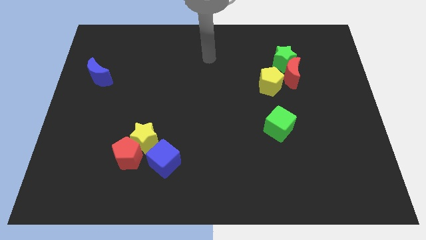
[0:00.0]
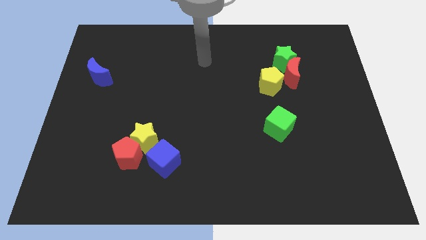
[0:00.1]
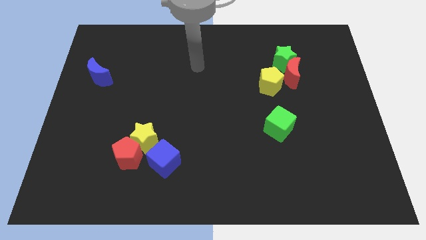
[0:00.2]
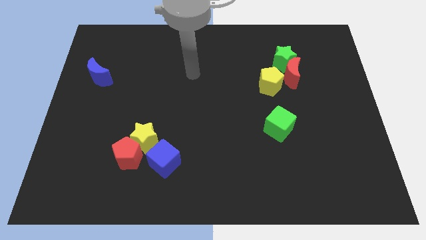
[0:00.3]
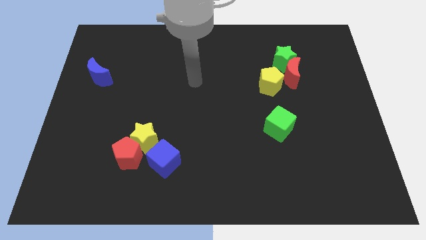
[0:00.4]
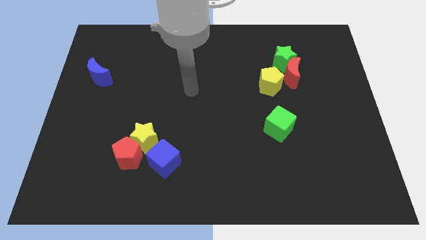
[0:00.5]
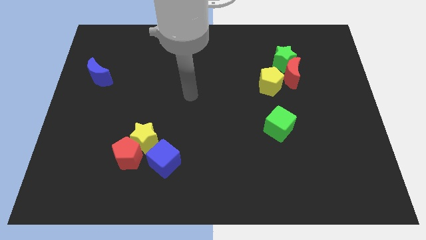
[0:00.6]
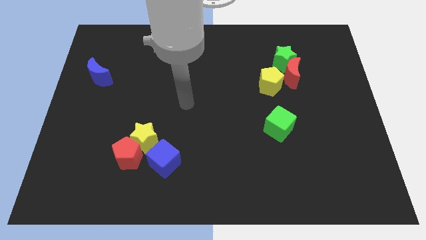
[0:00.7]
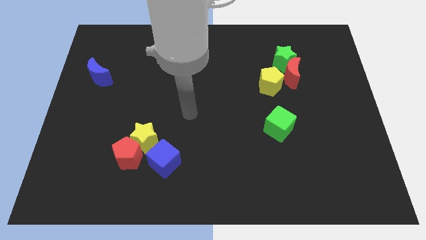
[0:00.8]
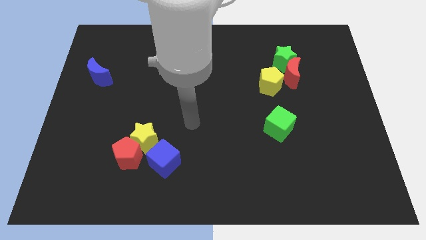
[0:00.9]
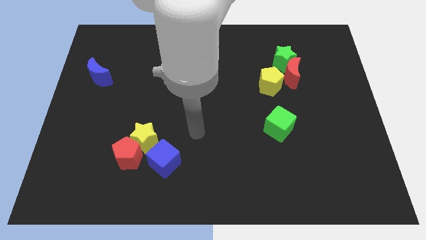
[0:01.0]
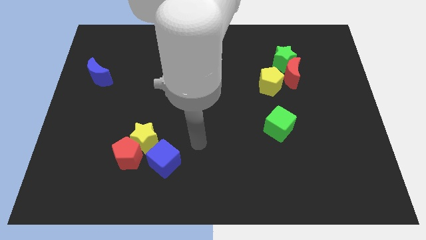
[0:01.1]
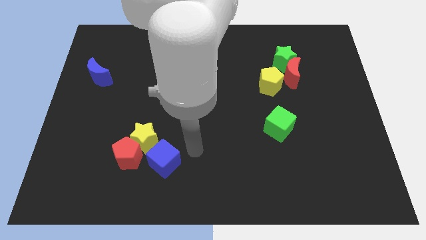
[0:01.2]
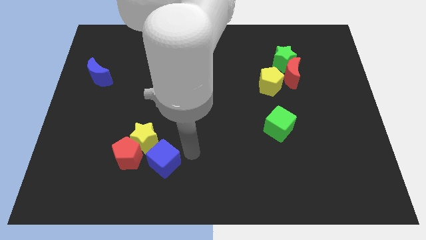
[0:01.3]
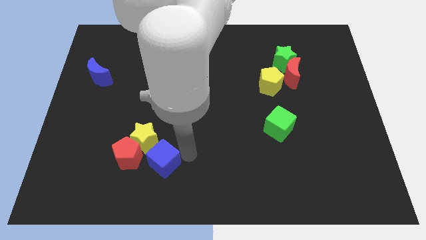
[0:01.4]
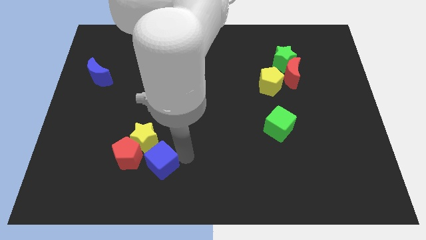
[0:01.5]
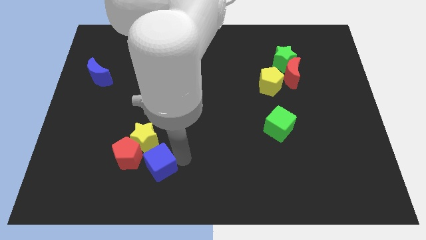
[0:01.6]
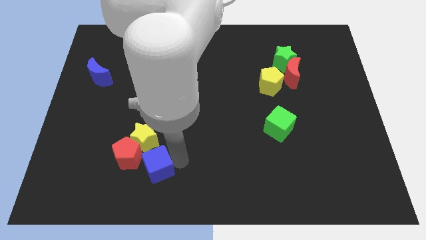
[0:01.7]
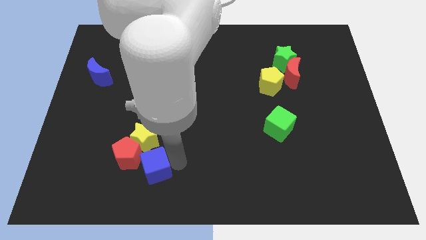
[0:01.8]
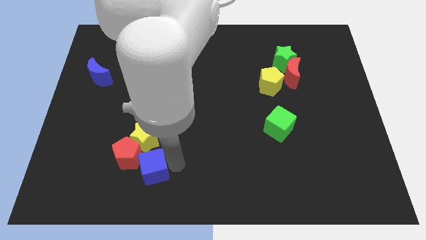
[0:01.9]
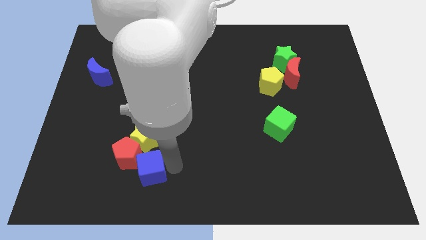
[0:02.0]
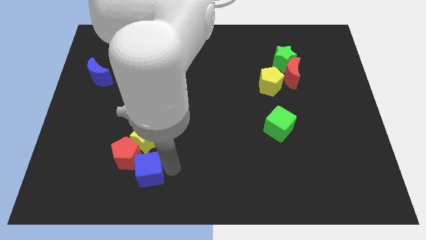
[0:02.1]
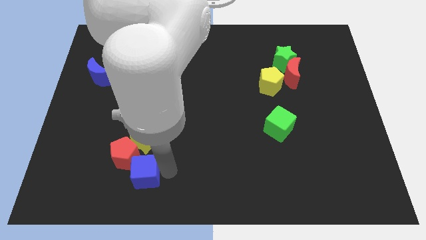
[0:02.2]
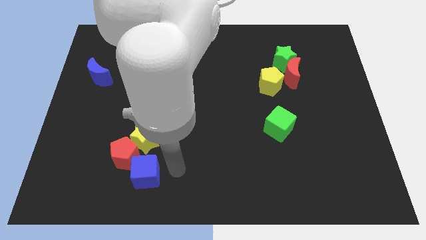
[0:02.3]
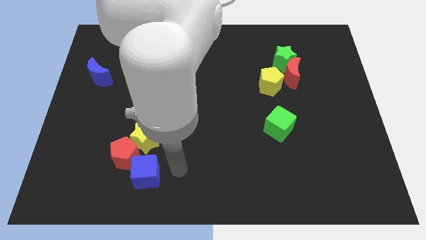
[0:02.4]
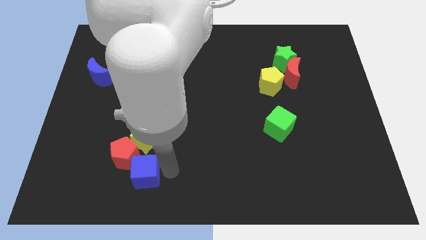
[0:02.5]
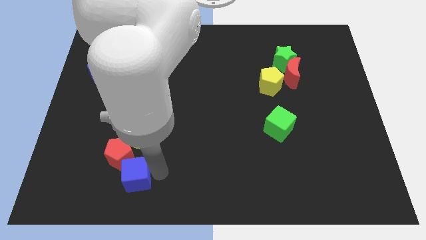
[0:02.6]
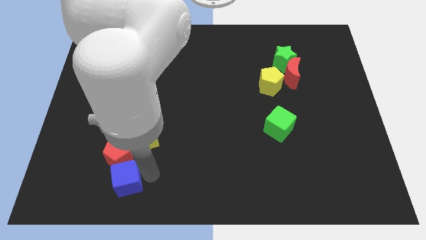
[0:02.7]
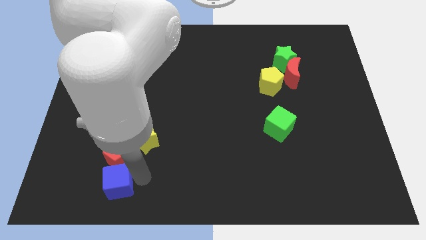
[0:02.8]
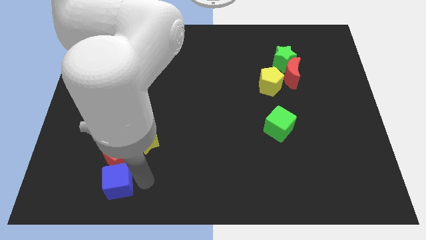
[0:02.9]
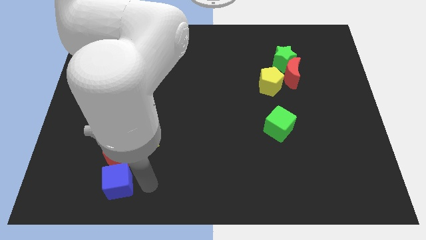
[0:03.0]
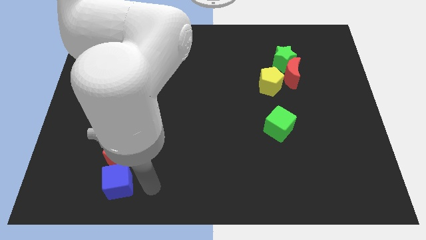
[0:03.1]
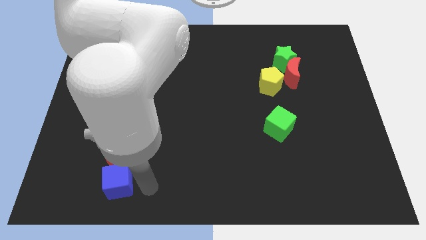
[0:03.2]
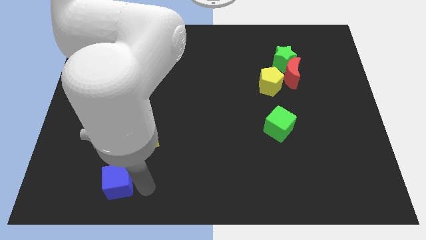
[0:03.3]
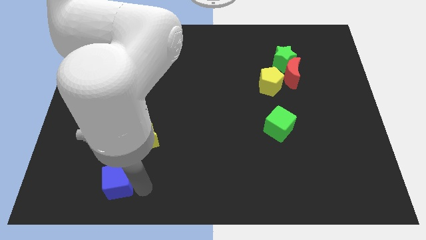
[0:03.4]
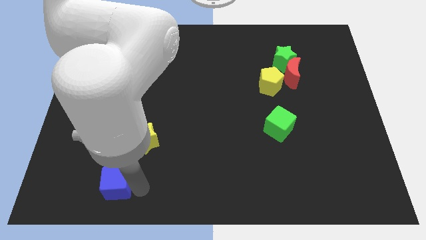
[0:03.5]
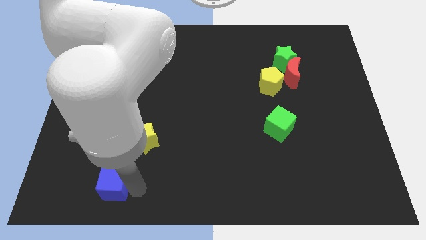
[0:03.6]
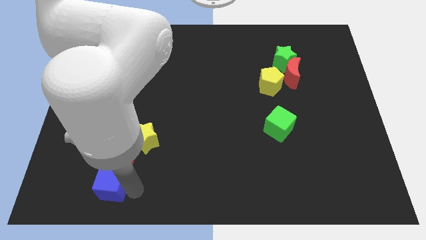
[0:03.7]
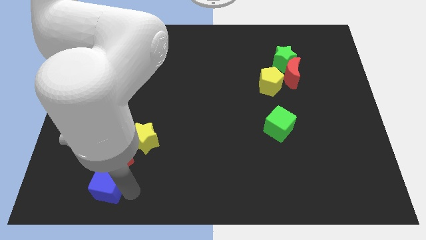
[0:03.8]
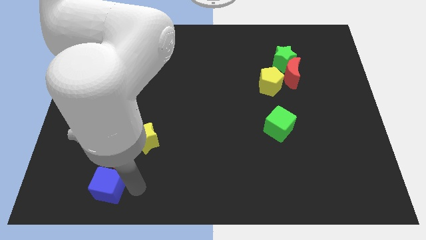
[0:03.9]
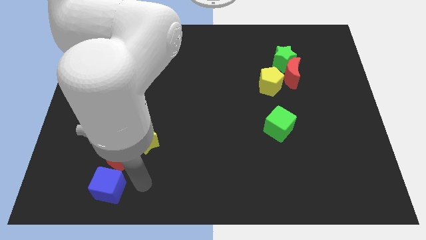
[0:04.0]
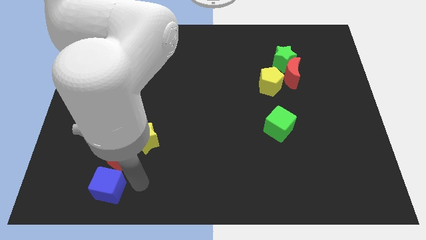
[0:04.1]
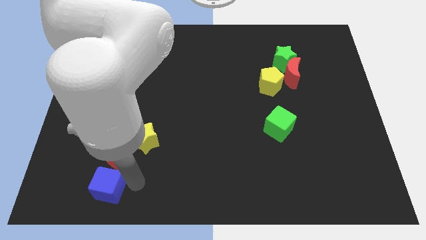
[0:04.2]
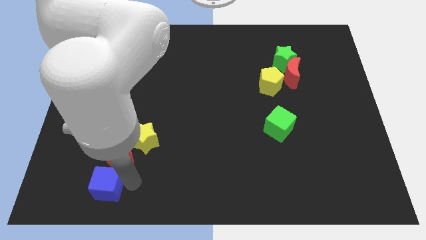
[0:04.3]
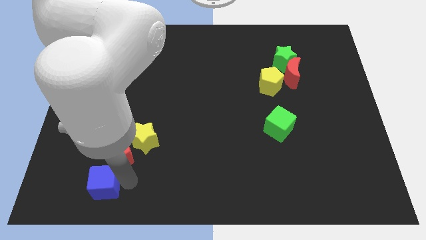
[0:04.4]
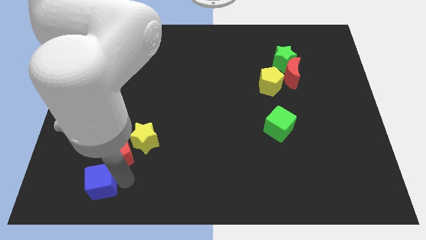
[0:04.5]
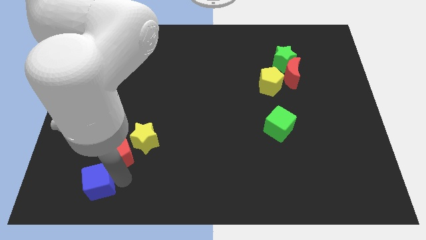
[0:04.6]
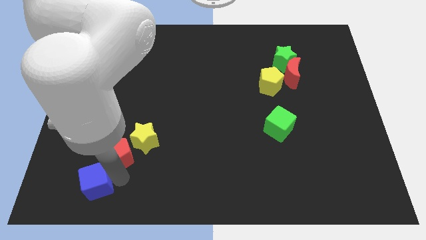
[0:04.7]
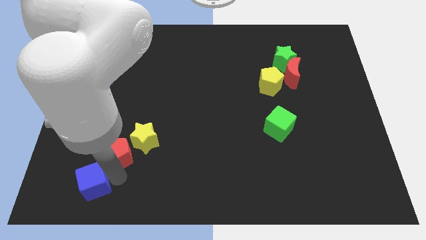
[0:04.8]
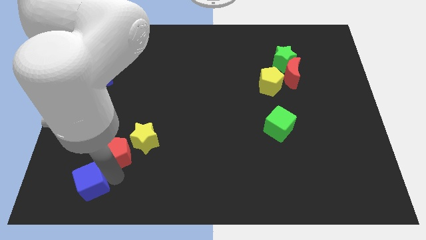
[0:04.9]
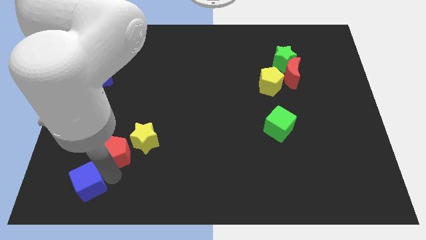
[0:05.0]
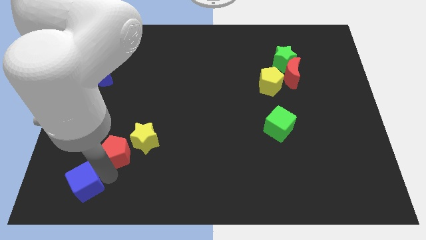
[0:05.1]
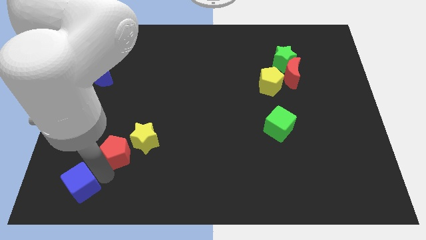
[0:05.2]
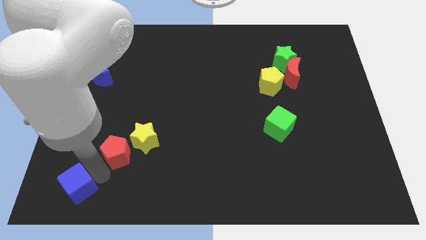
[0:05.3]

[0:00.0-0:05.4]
push the blue cube to the bottom left corner

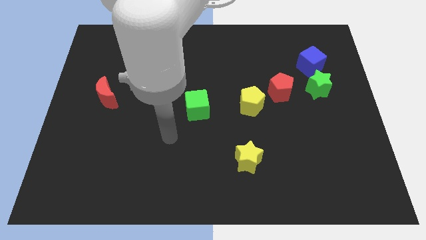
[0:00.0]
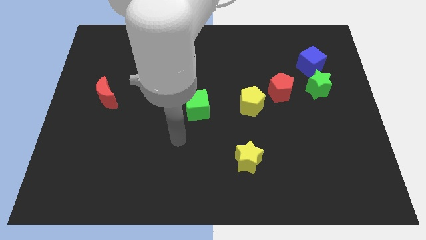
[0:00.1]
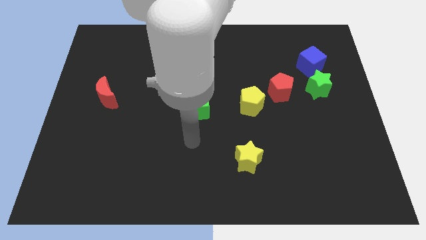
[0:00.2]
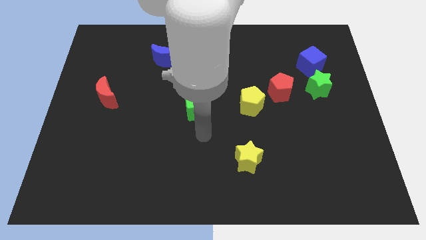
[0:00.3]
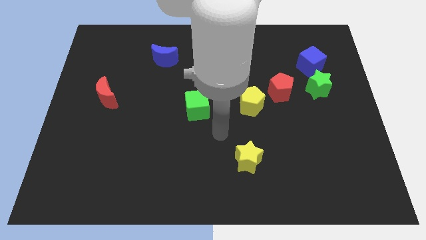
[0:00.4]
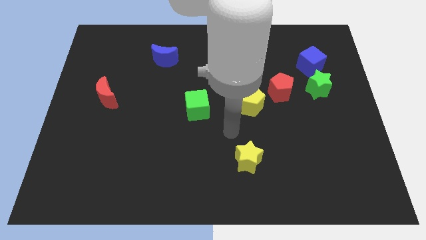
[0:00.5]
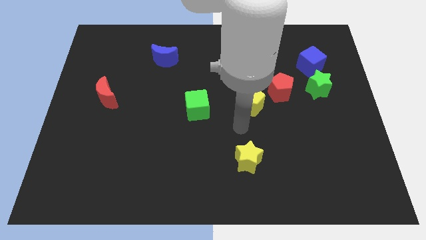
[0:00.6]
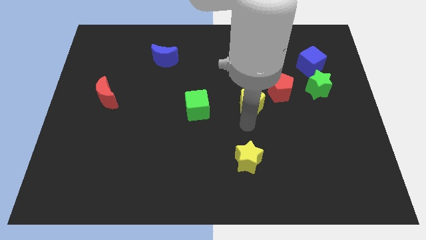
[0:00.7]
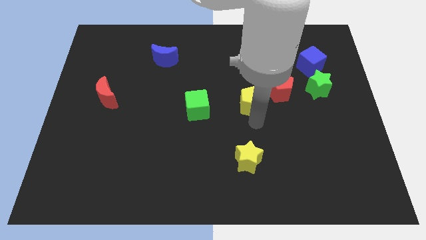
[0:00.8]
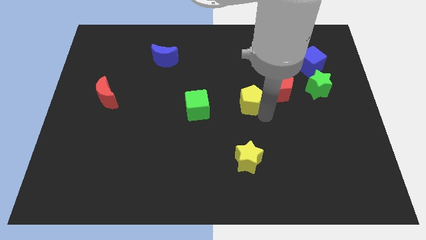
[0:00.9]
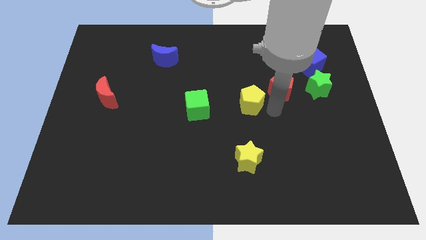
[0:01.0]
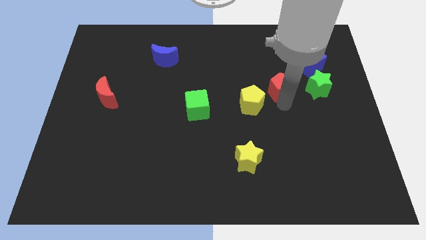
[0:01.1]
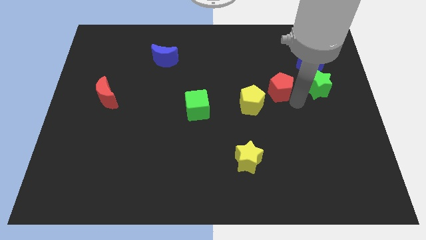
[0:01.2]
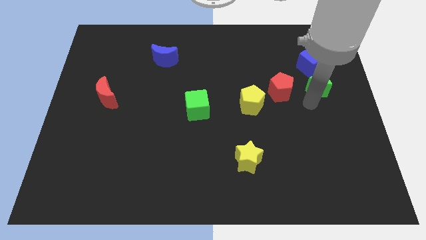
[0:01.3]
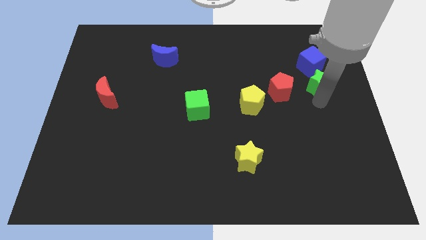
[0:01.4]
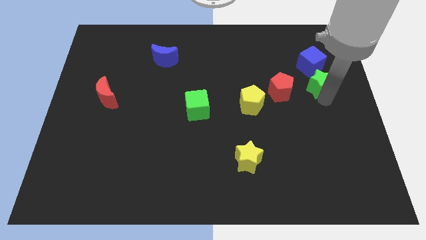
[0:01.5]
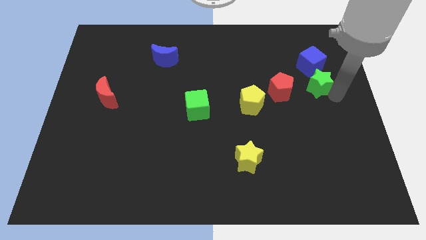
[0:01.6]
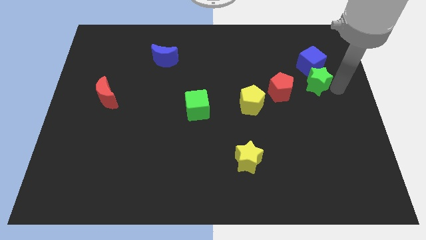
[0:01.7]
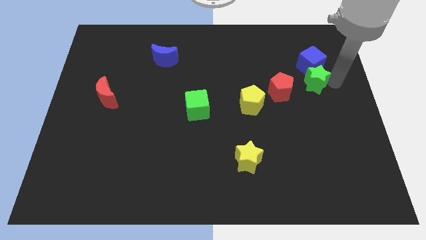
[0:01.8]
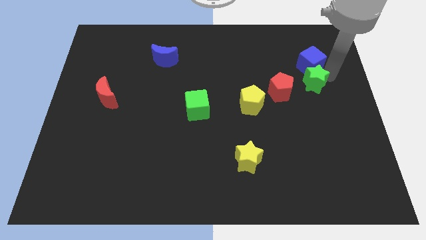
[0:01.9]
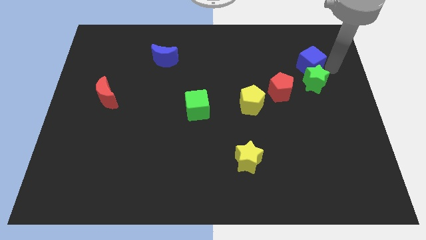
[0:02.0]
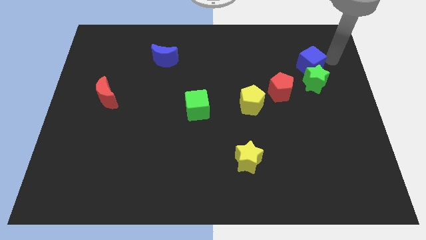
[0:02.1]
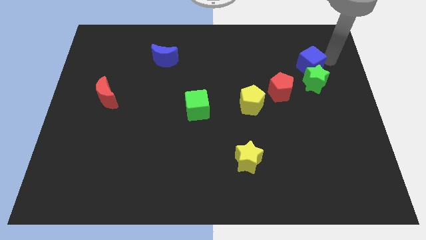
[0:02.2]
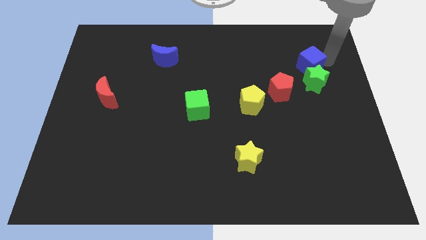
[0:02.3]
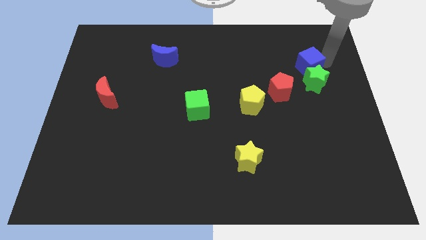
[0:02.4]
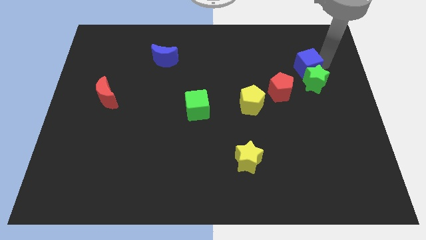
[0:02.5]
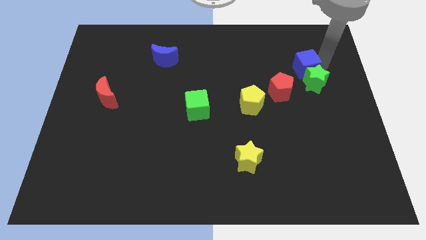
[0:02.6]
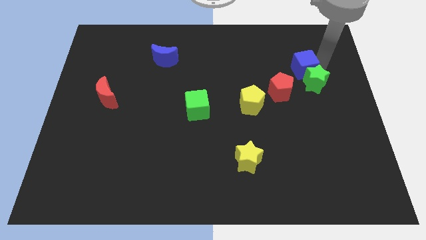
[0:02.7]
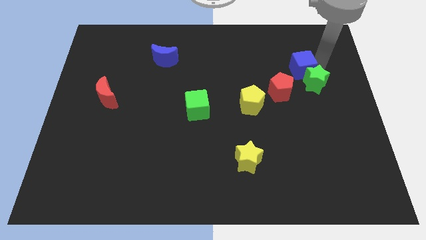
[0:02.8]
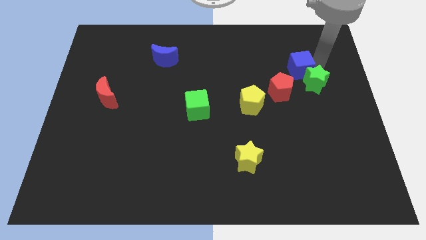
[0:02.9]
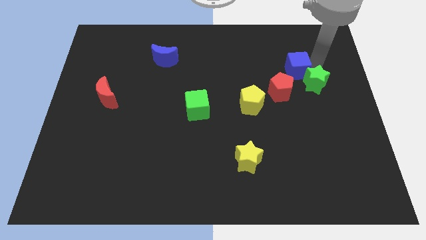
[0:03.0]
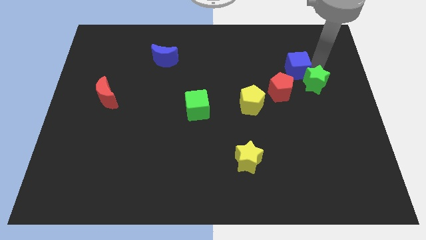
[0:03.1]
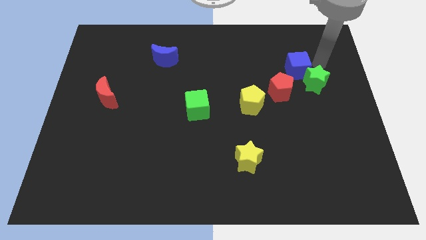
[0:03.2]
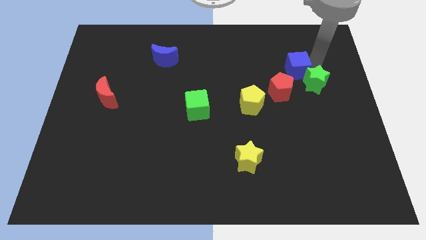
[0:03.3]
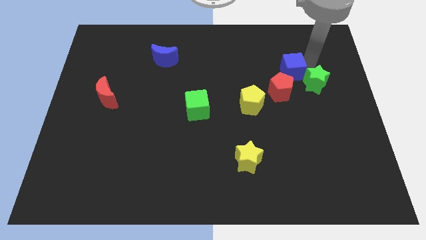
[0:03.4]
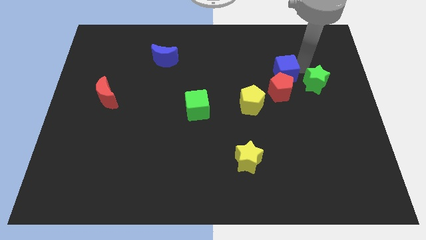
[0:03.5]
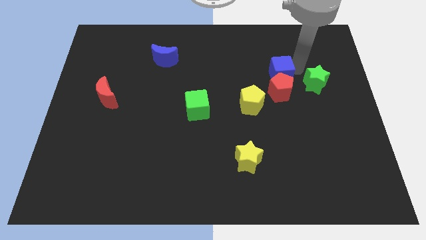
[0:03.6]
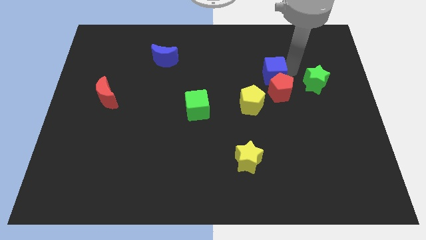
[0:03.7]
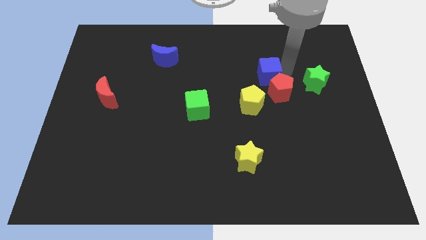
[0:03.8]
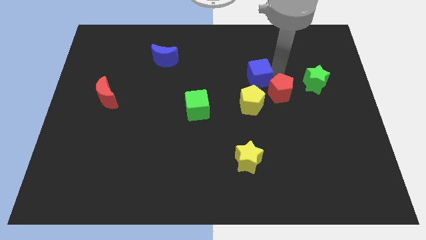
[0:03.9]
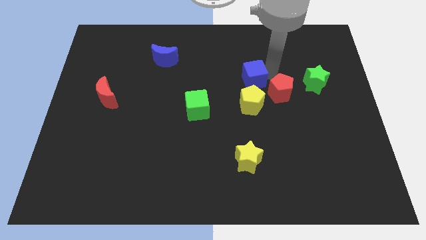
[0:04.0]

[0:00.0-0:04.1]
push the blue cube to the middle
